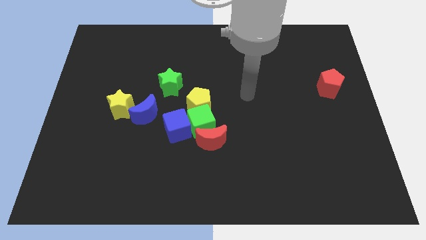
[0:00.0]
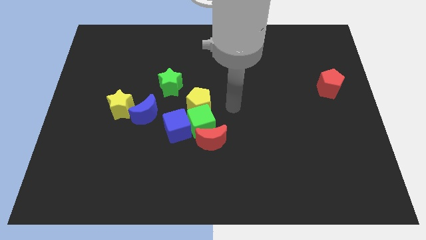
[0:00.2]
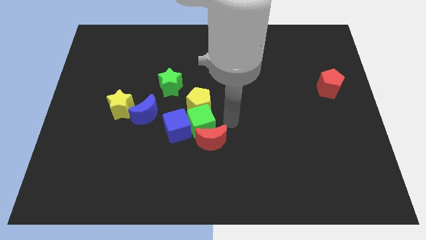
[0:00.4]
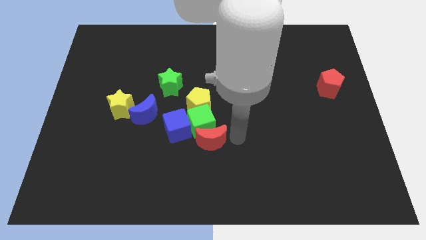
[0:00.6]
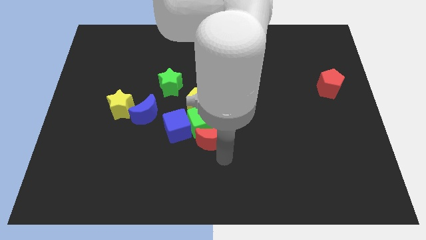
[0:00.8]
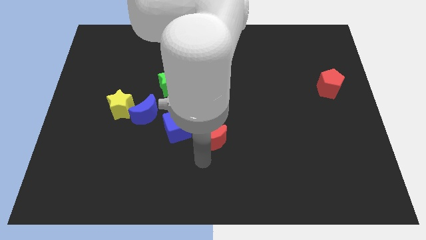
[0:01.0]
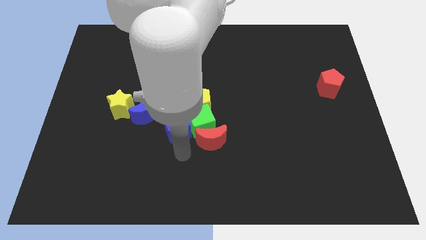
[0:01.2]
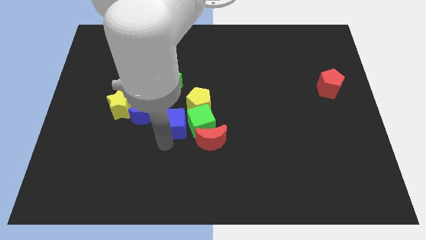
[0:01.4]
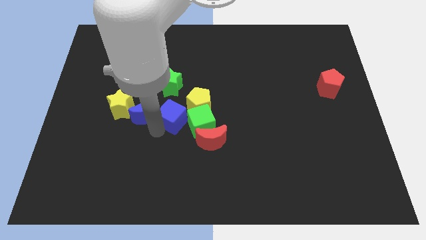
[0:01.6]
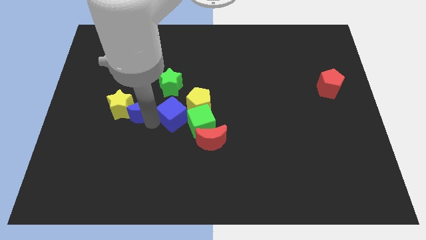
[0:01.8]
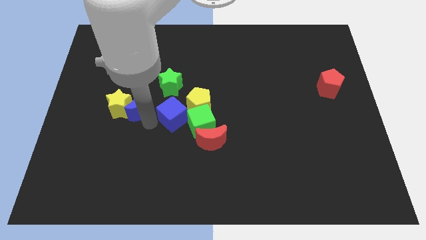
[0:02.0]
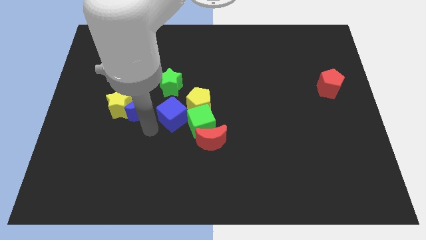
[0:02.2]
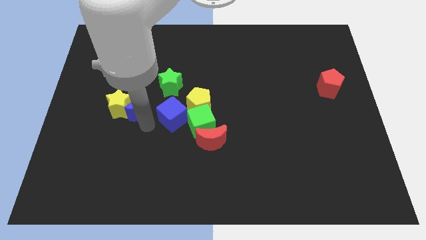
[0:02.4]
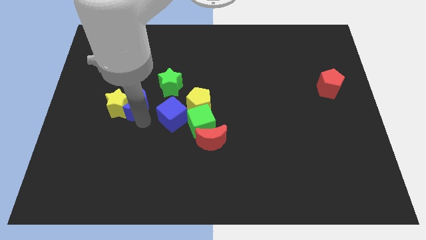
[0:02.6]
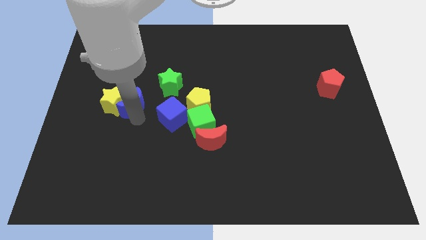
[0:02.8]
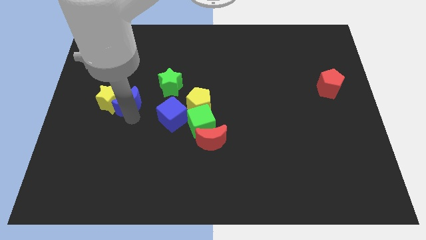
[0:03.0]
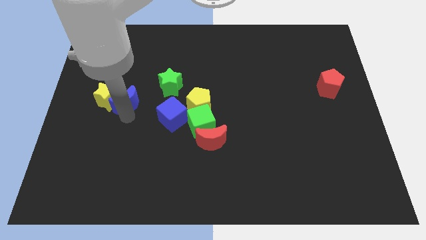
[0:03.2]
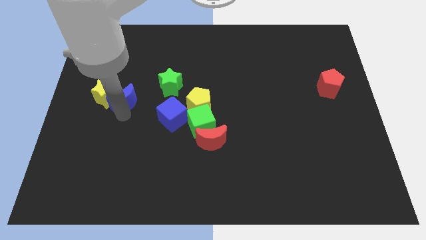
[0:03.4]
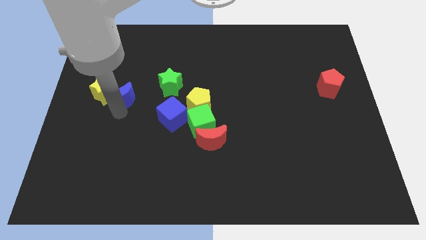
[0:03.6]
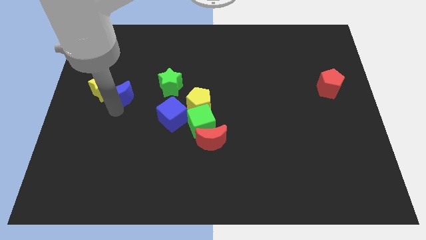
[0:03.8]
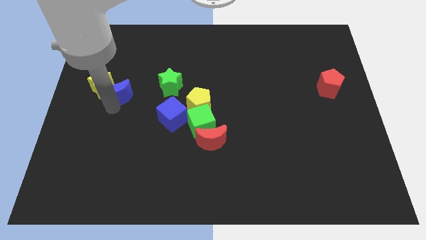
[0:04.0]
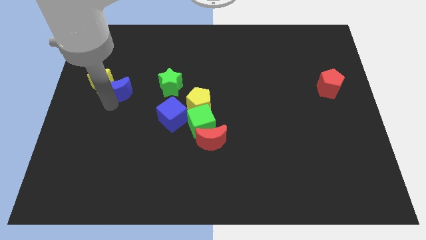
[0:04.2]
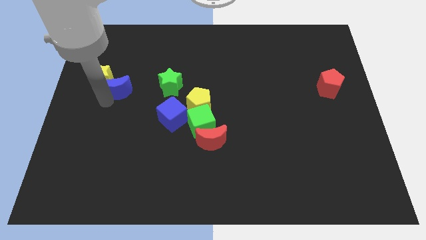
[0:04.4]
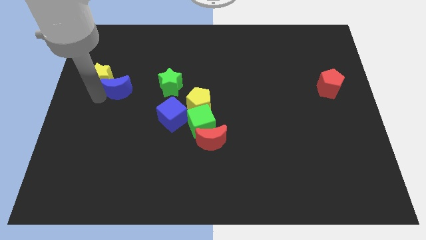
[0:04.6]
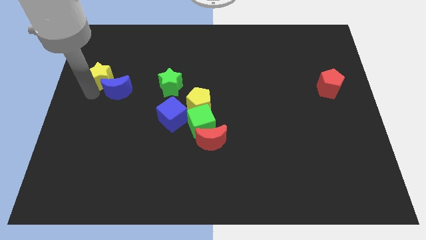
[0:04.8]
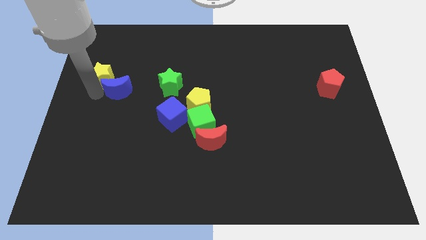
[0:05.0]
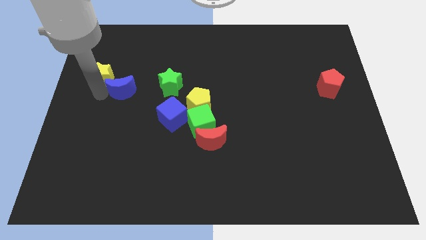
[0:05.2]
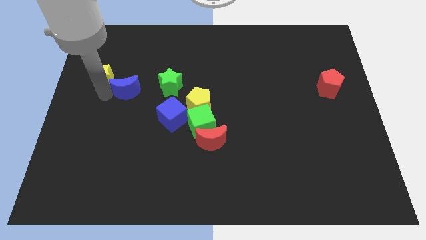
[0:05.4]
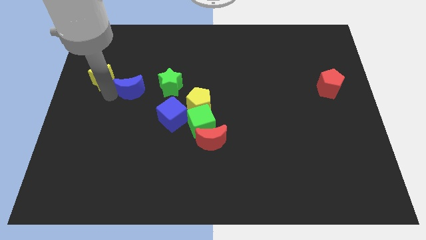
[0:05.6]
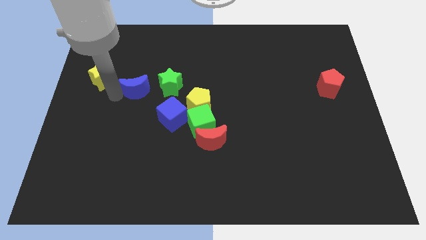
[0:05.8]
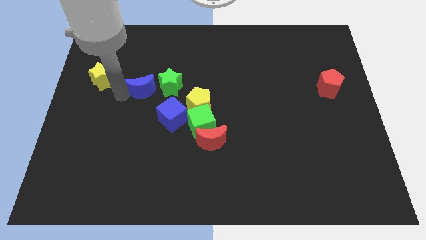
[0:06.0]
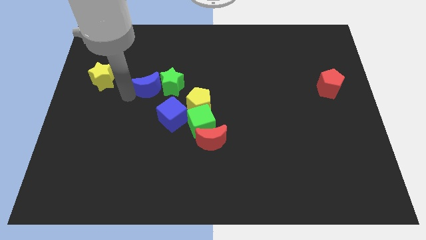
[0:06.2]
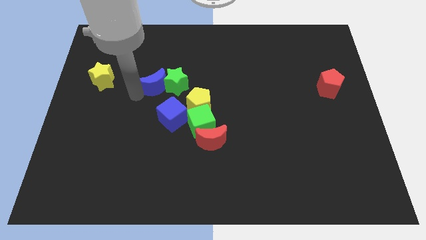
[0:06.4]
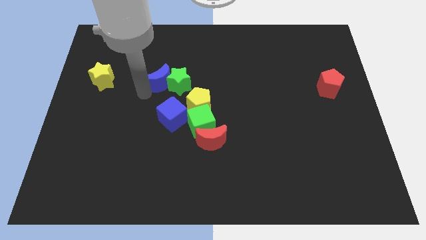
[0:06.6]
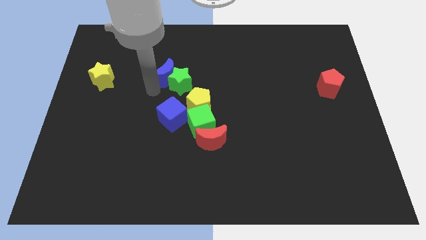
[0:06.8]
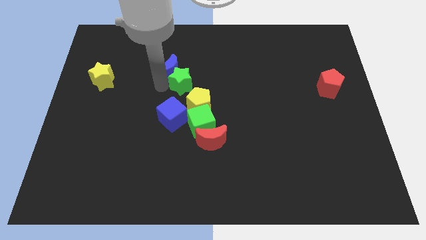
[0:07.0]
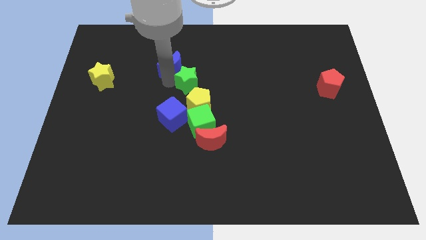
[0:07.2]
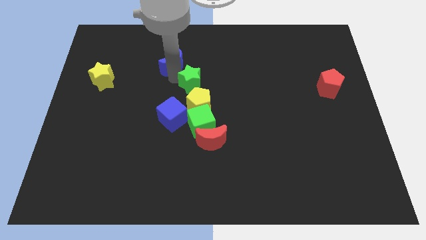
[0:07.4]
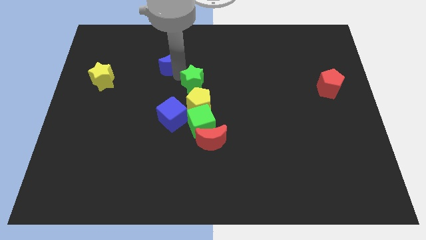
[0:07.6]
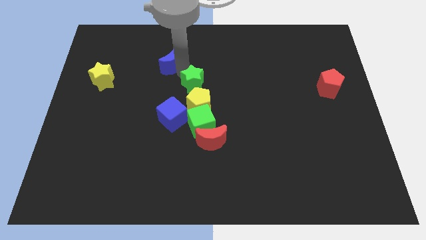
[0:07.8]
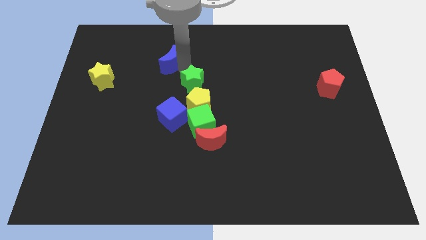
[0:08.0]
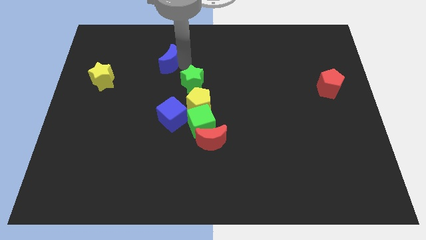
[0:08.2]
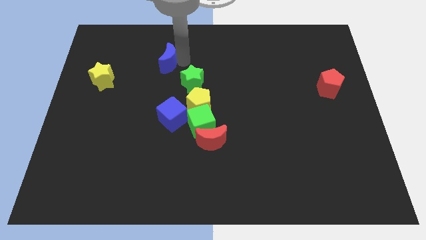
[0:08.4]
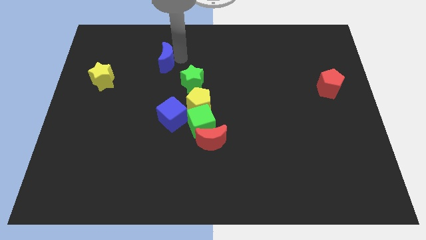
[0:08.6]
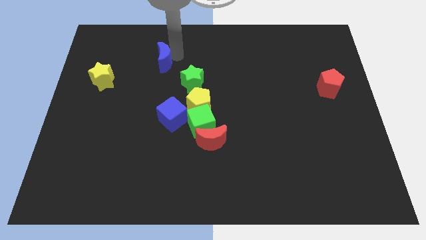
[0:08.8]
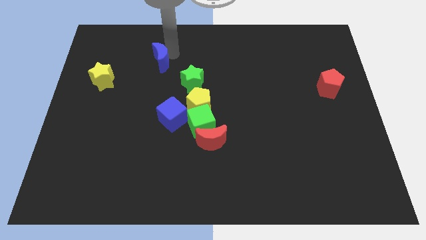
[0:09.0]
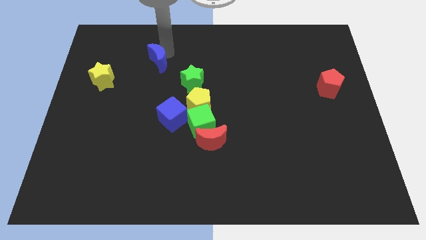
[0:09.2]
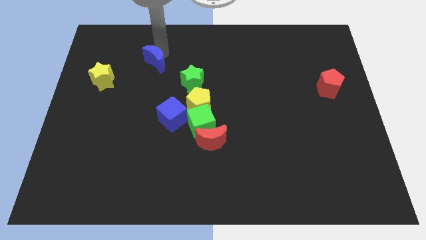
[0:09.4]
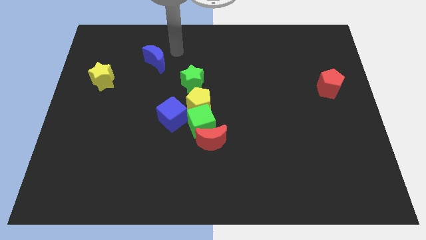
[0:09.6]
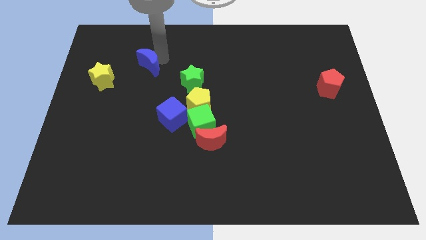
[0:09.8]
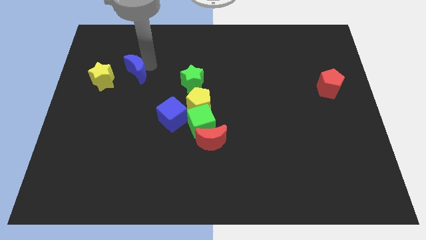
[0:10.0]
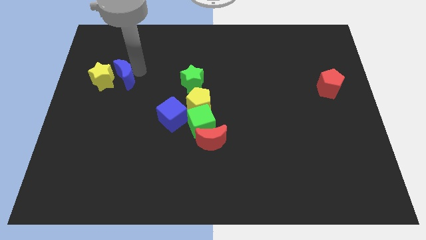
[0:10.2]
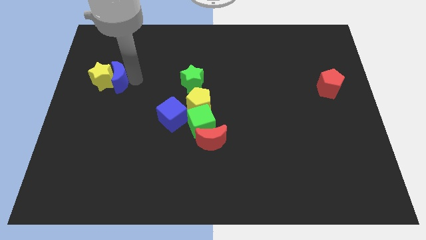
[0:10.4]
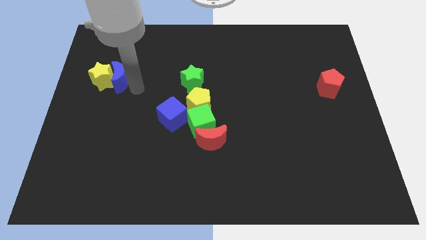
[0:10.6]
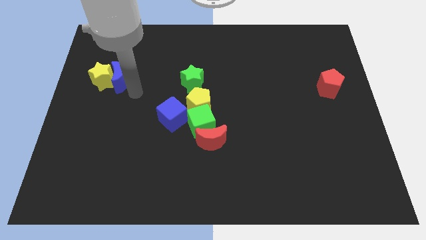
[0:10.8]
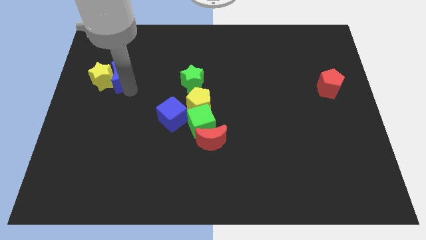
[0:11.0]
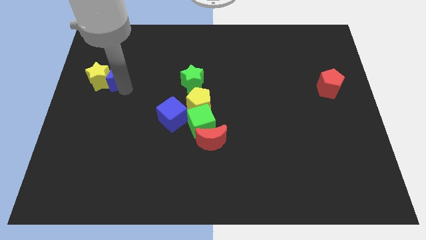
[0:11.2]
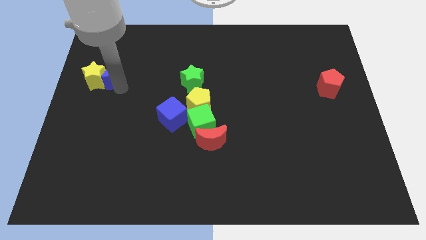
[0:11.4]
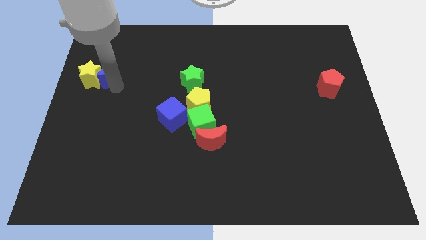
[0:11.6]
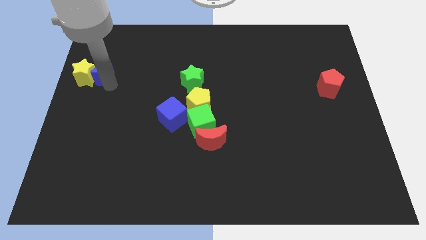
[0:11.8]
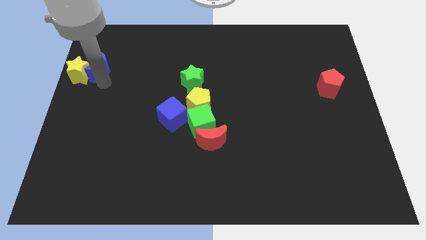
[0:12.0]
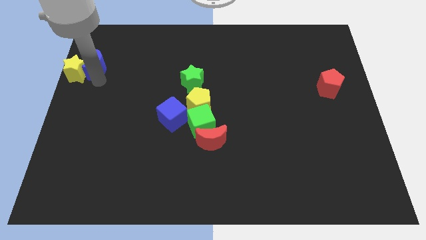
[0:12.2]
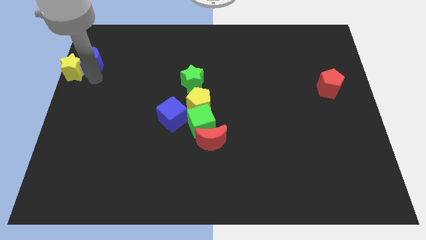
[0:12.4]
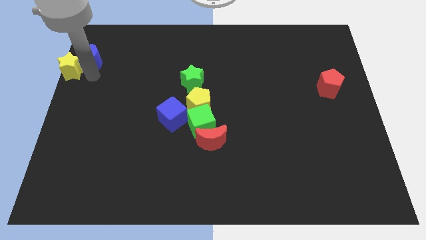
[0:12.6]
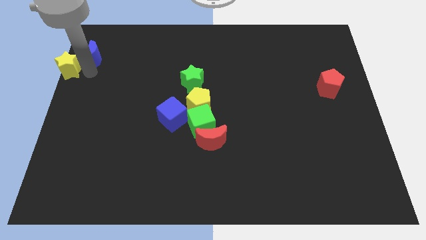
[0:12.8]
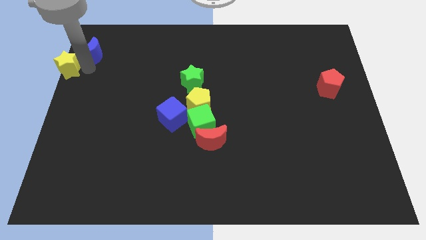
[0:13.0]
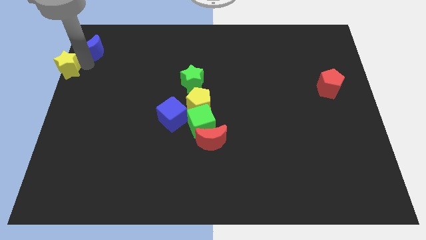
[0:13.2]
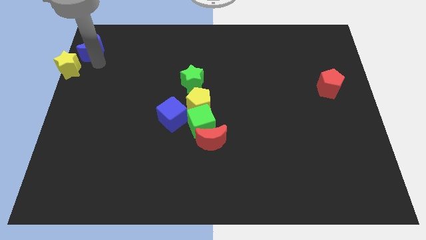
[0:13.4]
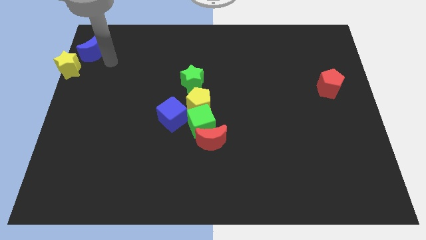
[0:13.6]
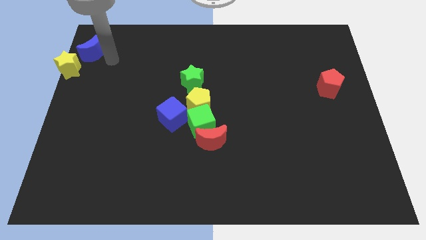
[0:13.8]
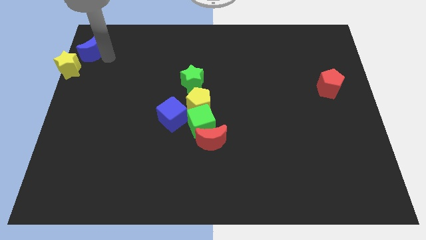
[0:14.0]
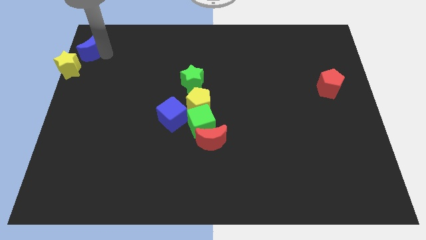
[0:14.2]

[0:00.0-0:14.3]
put the blue moon to the top left
